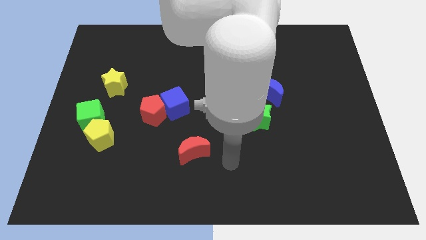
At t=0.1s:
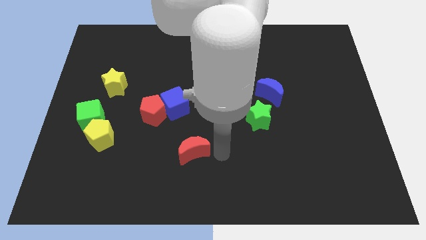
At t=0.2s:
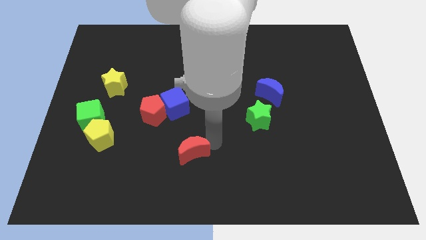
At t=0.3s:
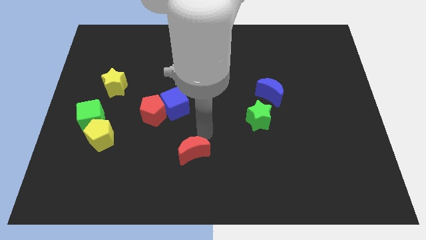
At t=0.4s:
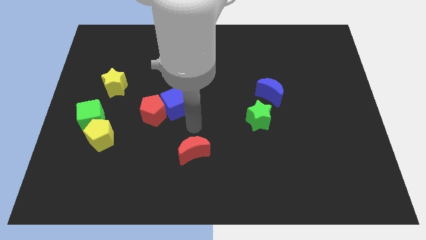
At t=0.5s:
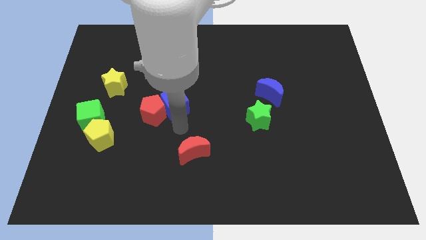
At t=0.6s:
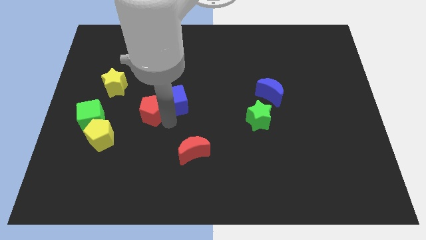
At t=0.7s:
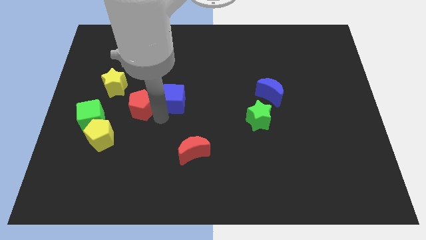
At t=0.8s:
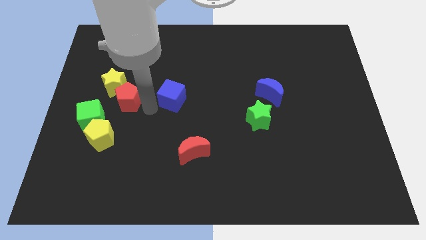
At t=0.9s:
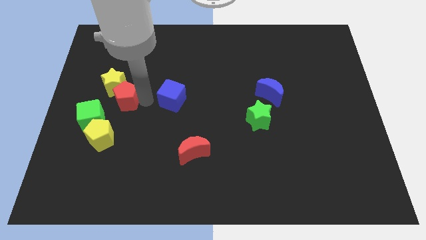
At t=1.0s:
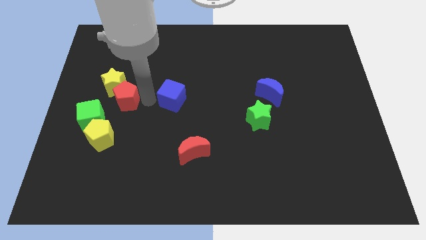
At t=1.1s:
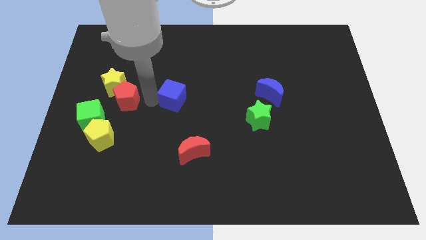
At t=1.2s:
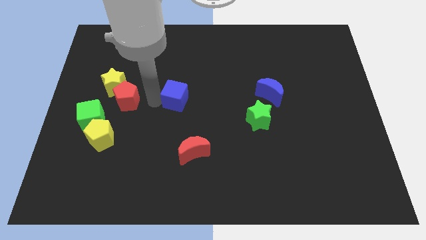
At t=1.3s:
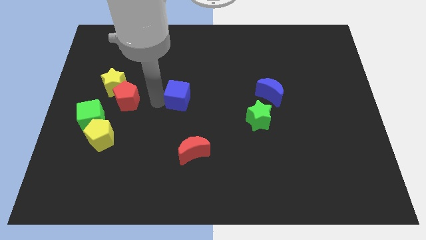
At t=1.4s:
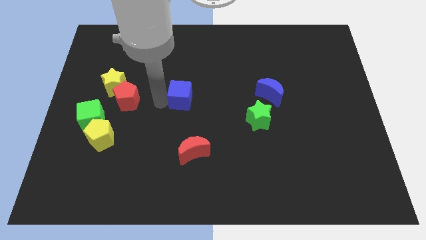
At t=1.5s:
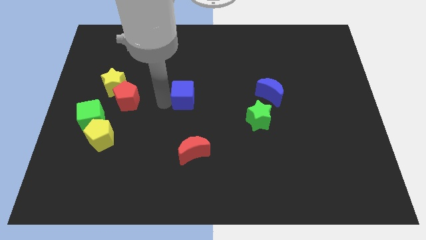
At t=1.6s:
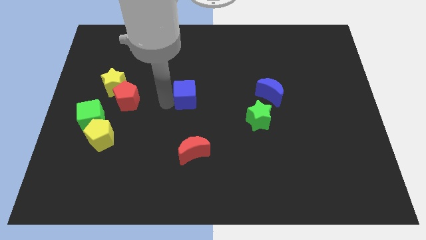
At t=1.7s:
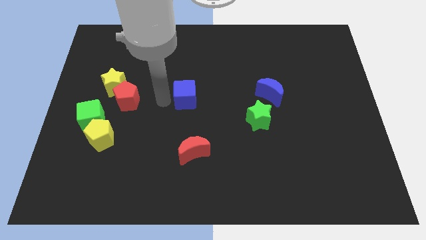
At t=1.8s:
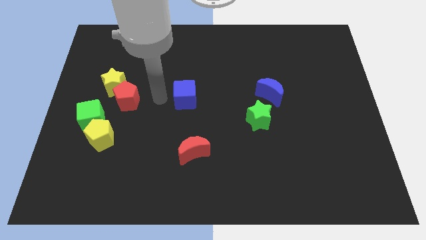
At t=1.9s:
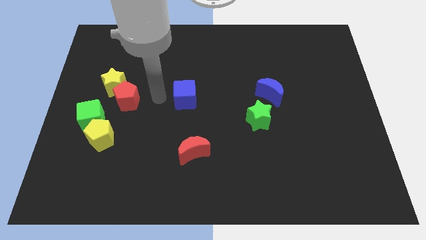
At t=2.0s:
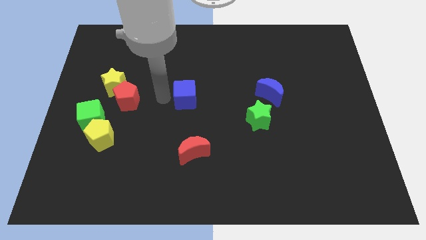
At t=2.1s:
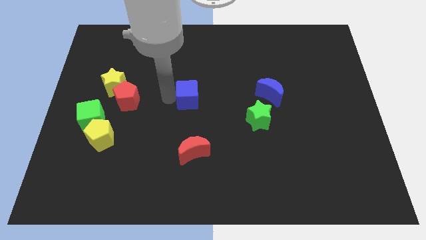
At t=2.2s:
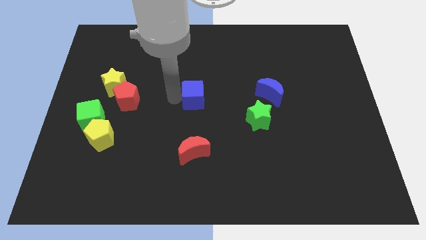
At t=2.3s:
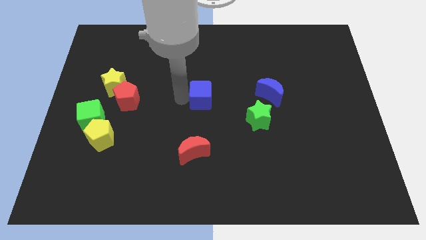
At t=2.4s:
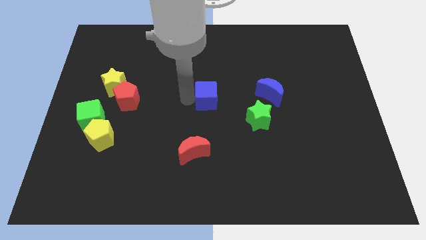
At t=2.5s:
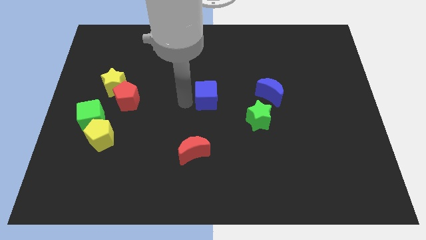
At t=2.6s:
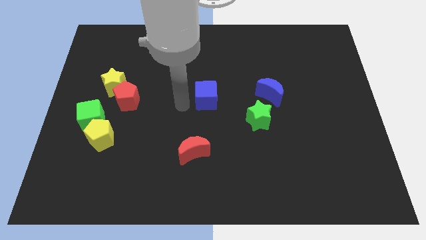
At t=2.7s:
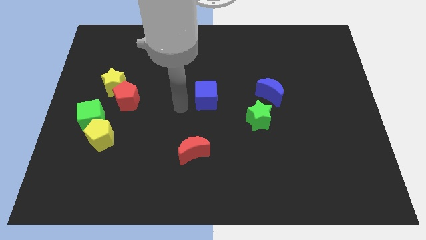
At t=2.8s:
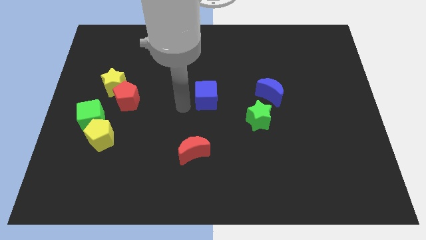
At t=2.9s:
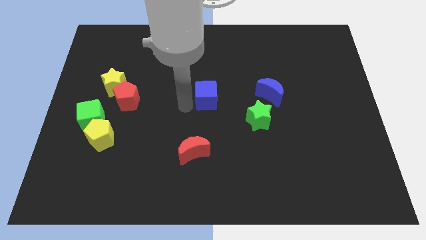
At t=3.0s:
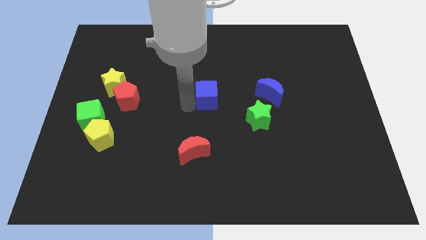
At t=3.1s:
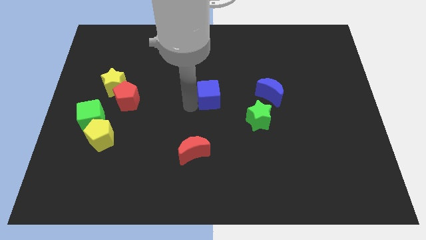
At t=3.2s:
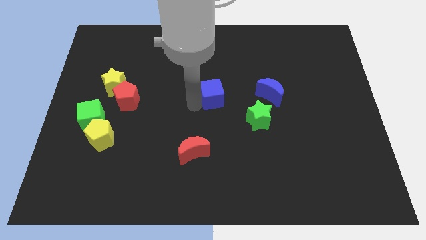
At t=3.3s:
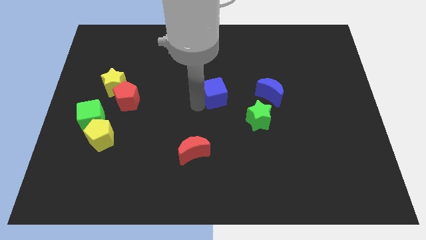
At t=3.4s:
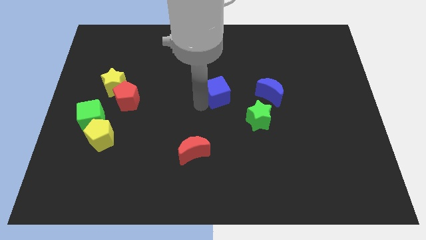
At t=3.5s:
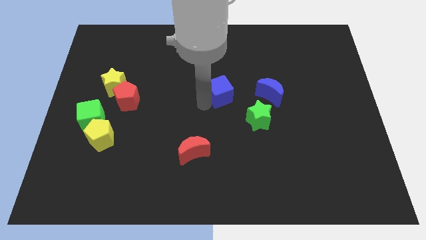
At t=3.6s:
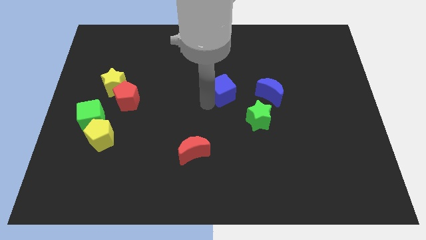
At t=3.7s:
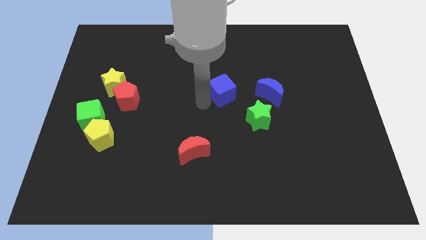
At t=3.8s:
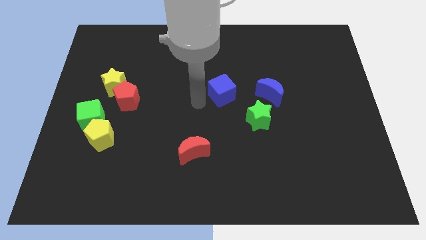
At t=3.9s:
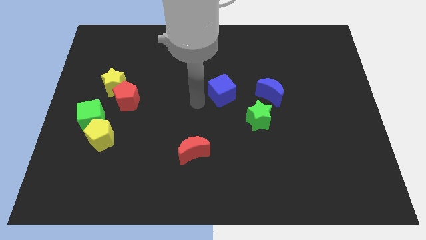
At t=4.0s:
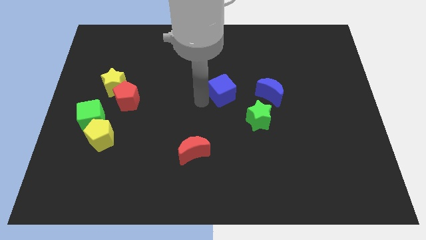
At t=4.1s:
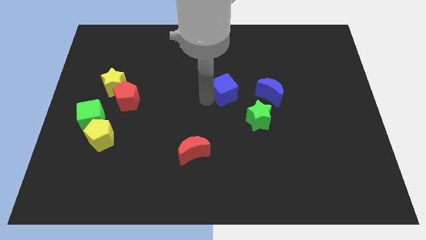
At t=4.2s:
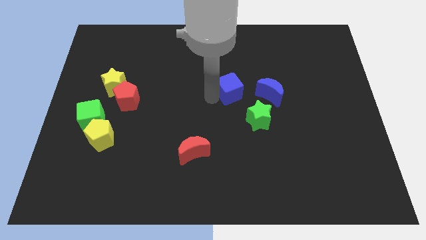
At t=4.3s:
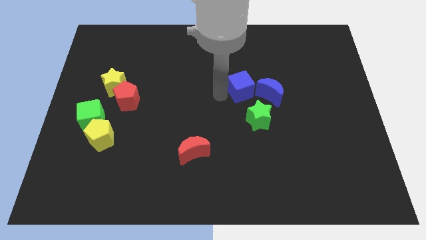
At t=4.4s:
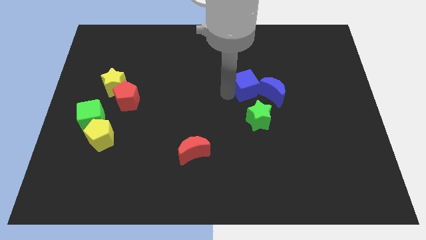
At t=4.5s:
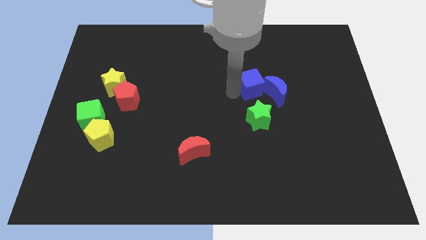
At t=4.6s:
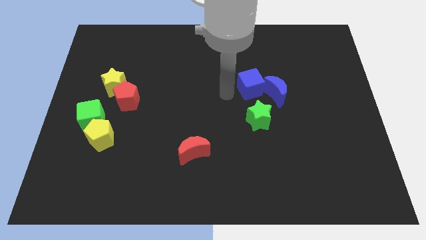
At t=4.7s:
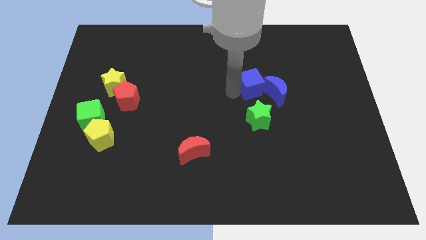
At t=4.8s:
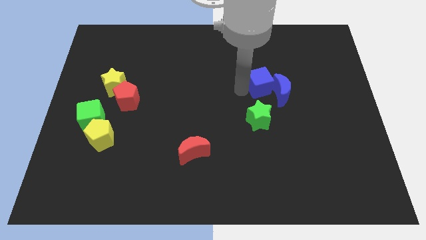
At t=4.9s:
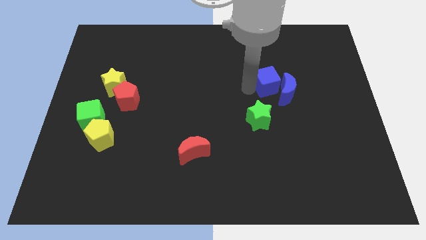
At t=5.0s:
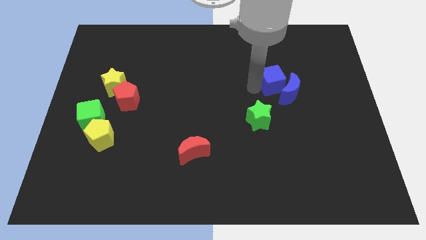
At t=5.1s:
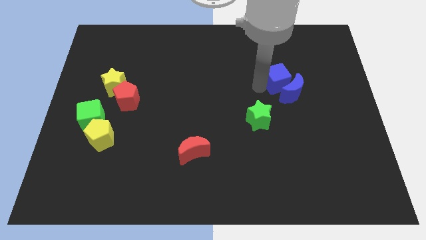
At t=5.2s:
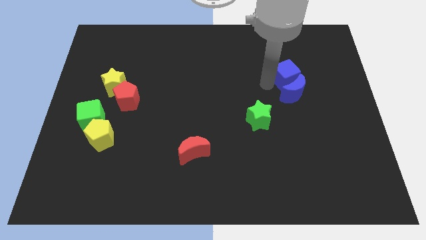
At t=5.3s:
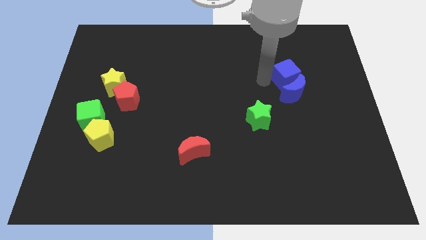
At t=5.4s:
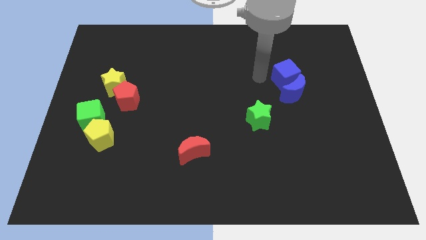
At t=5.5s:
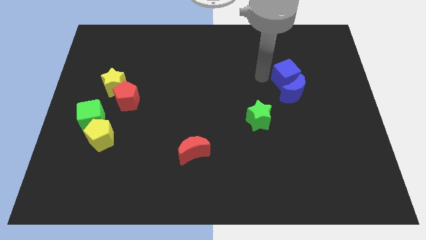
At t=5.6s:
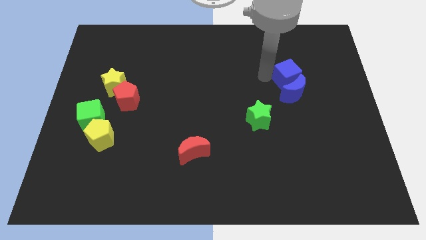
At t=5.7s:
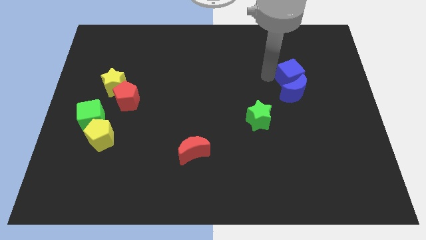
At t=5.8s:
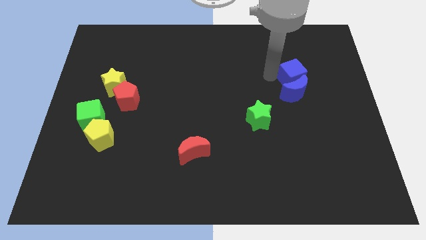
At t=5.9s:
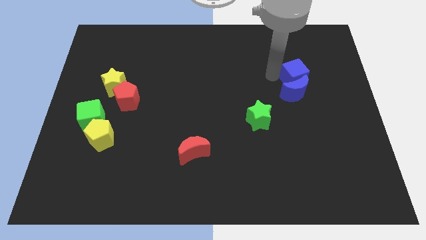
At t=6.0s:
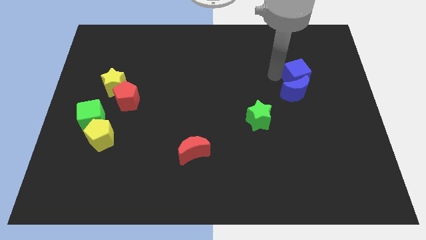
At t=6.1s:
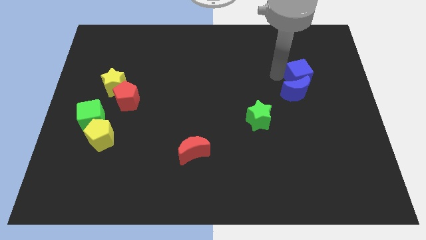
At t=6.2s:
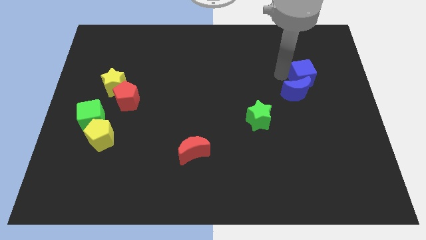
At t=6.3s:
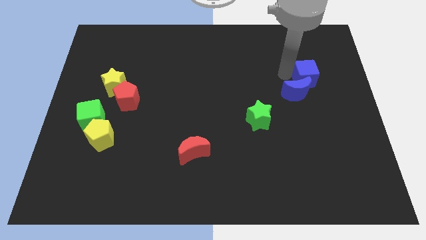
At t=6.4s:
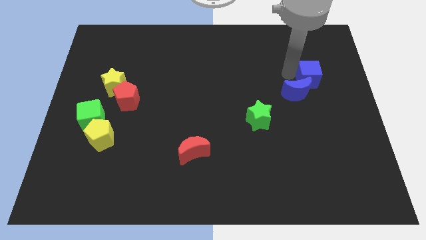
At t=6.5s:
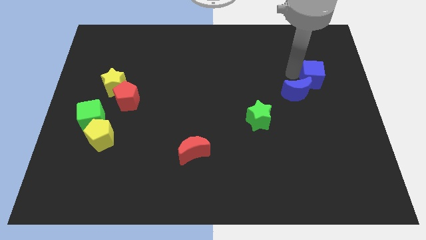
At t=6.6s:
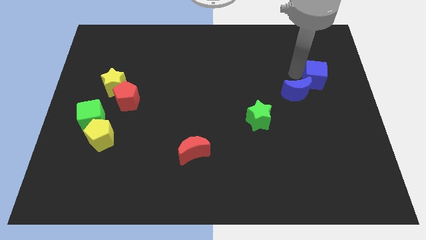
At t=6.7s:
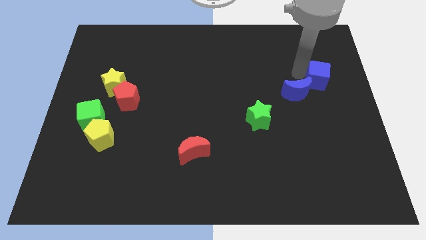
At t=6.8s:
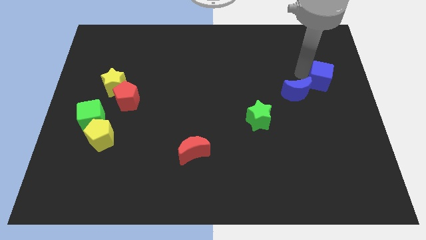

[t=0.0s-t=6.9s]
move the blue cube to the right side of the board
